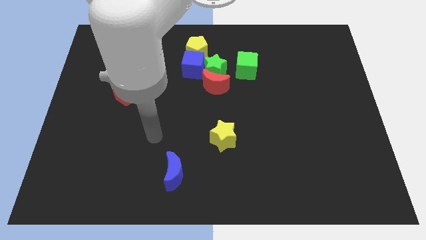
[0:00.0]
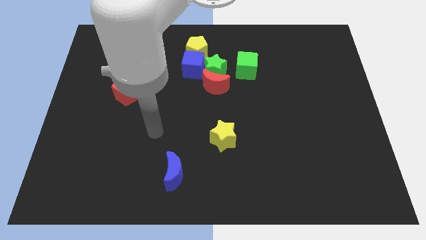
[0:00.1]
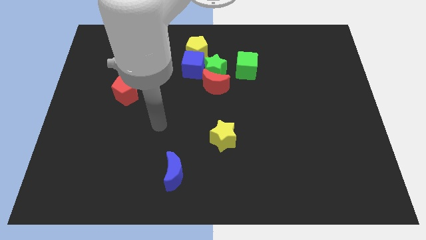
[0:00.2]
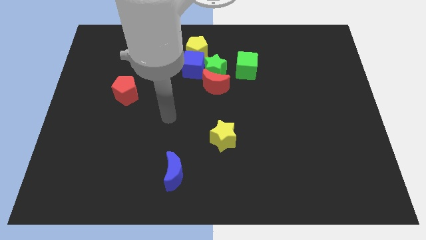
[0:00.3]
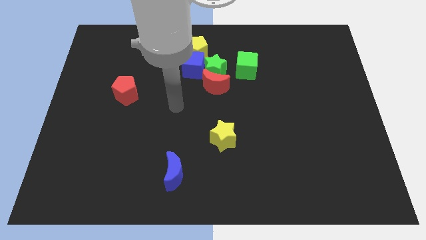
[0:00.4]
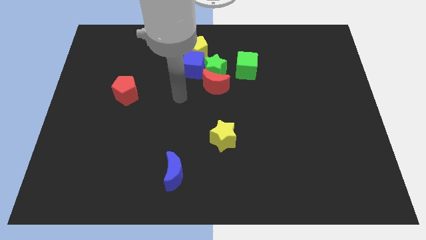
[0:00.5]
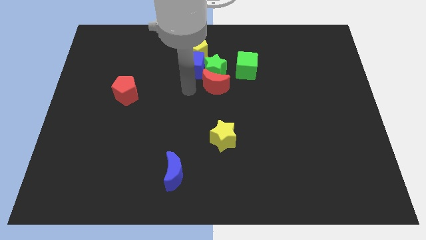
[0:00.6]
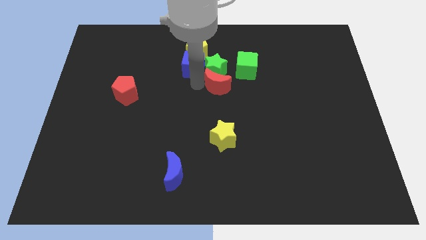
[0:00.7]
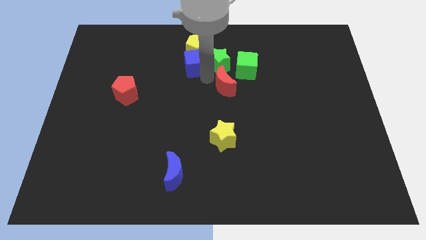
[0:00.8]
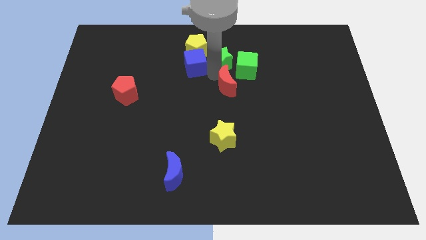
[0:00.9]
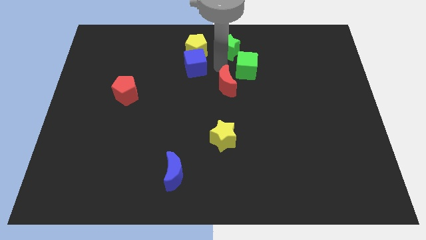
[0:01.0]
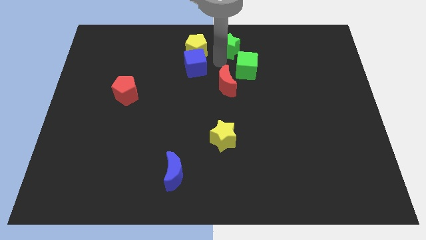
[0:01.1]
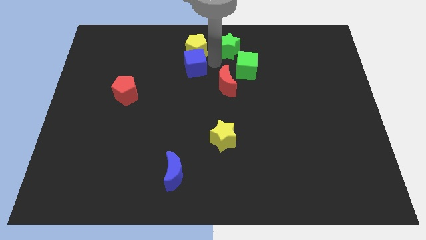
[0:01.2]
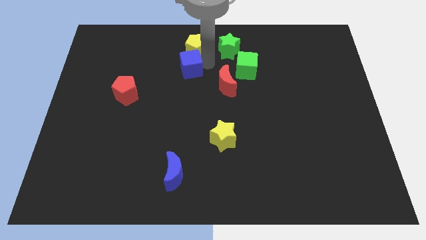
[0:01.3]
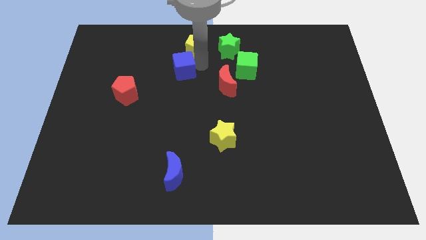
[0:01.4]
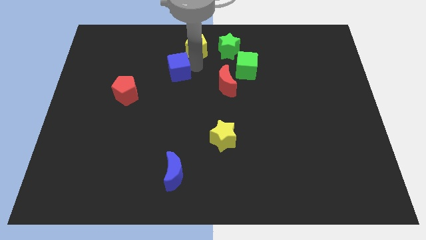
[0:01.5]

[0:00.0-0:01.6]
move the blue cube away from the yellow pentagon, green star, and red moon

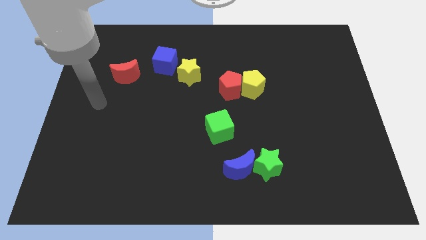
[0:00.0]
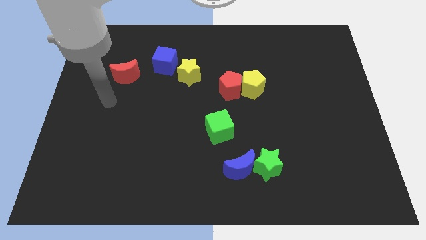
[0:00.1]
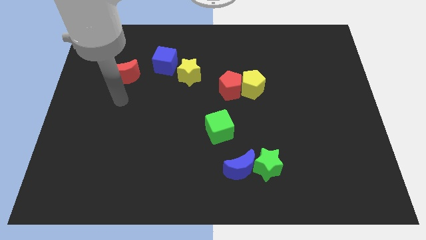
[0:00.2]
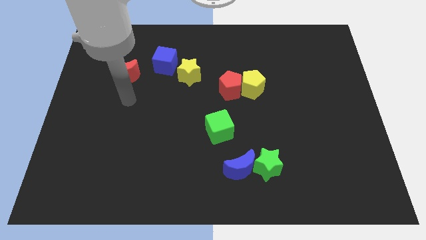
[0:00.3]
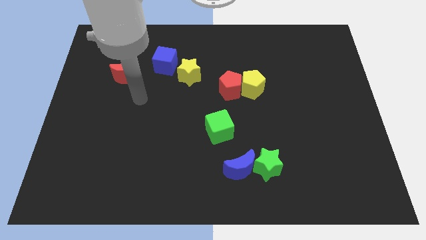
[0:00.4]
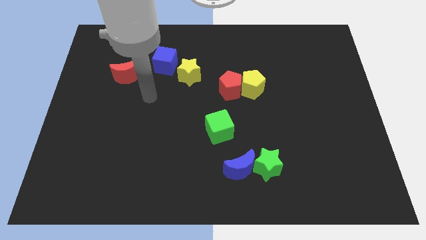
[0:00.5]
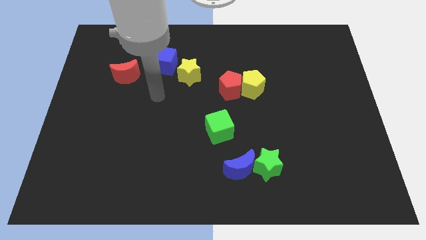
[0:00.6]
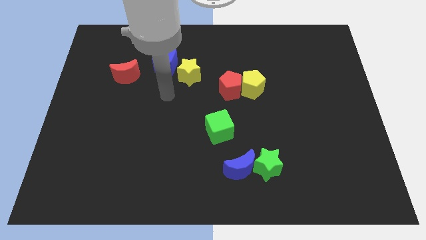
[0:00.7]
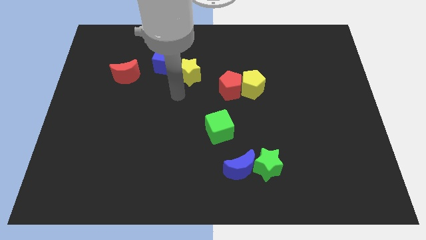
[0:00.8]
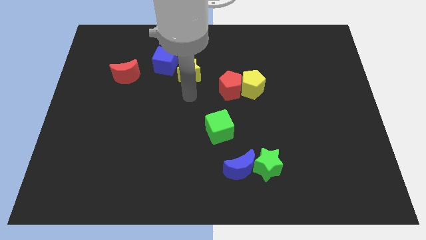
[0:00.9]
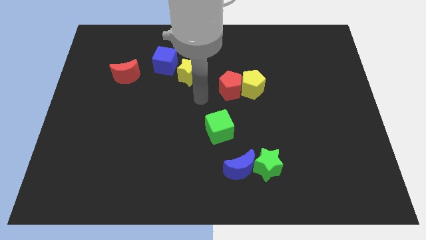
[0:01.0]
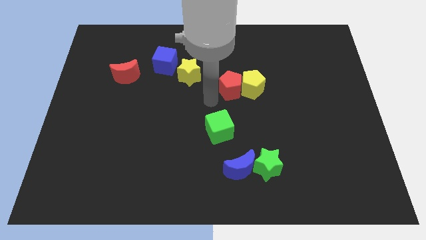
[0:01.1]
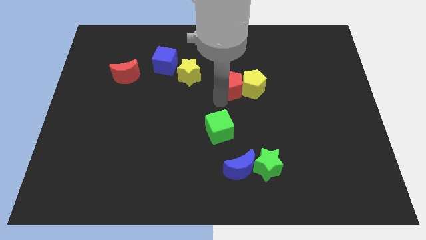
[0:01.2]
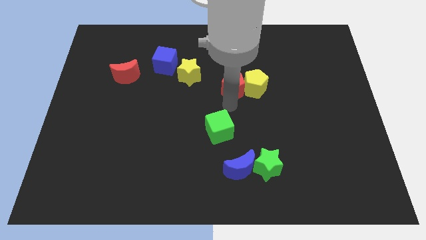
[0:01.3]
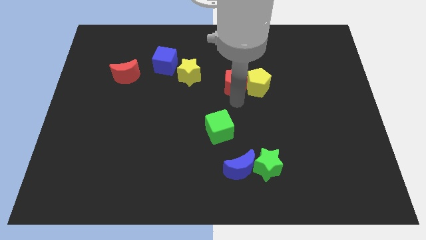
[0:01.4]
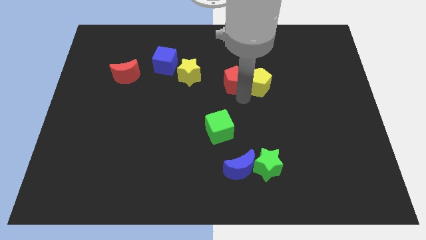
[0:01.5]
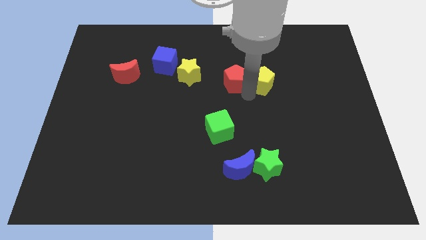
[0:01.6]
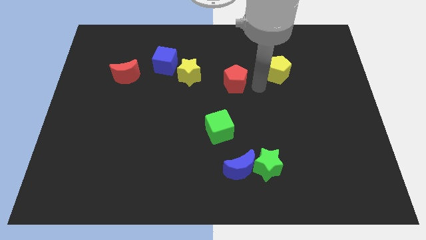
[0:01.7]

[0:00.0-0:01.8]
move the red pentagon away from the yellow pentagon

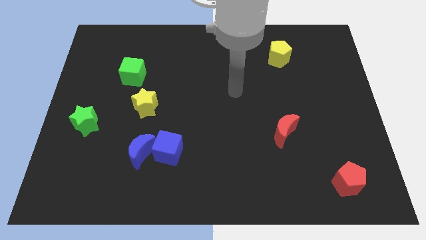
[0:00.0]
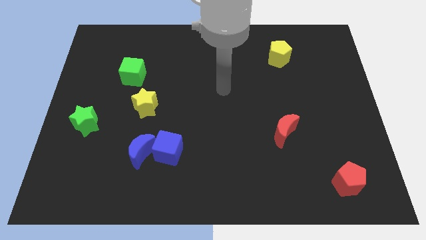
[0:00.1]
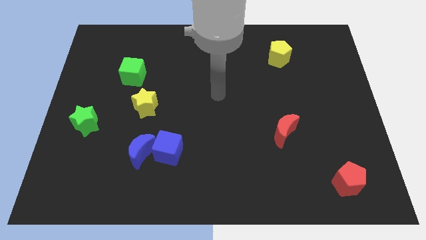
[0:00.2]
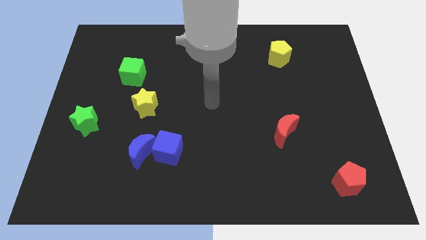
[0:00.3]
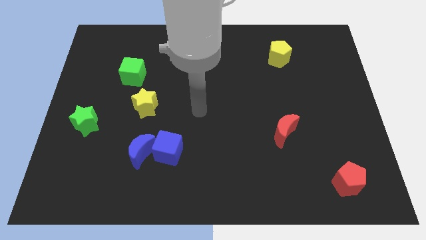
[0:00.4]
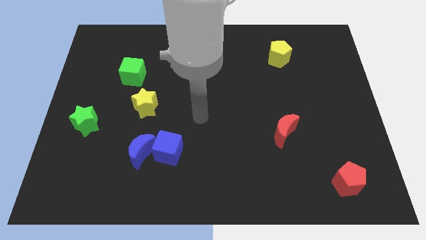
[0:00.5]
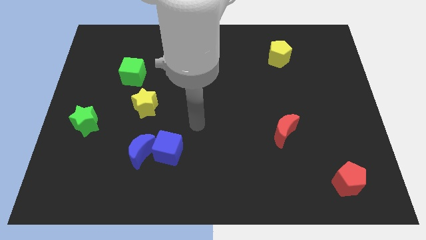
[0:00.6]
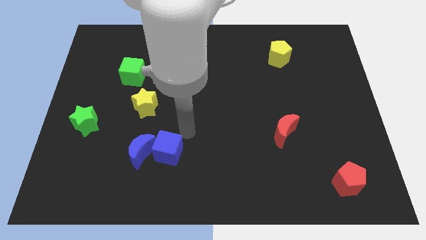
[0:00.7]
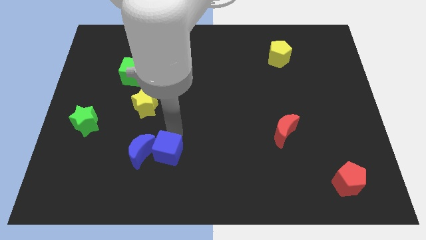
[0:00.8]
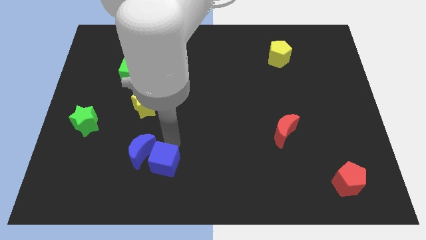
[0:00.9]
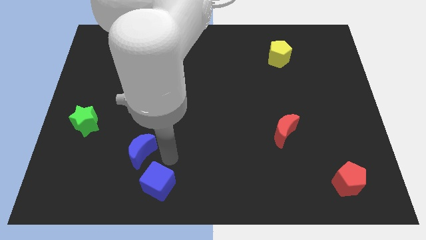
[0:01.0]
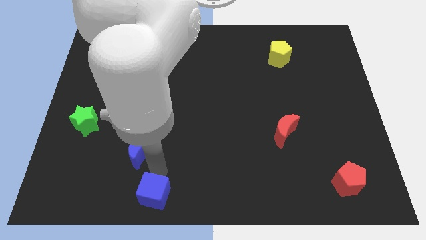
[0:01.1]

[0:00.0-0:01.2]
move the blue moon away from the blue cube

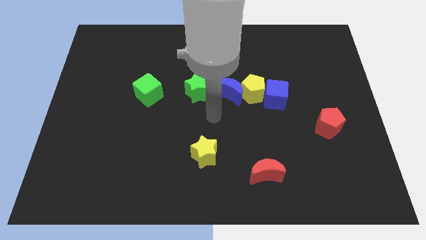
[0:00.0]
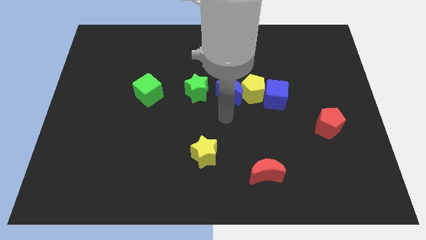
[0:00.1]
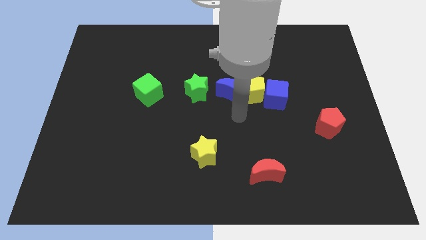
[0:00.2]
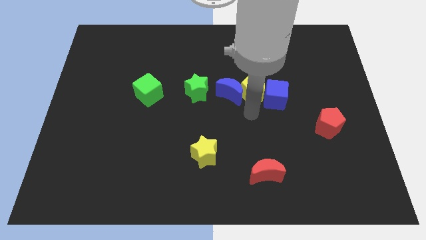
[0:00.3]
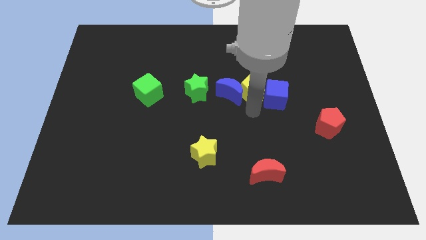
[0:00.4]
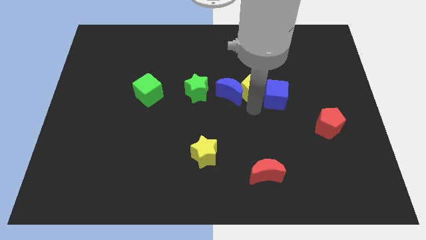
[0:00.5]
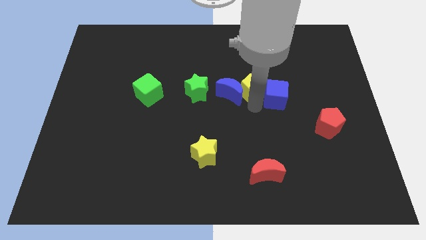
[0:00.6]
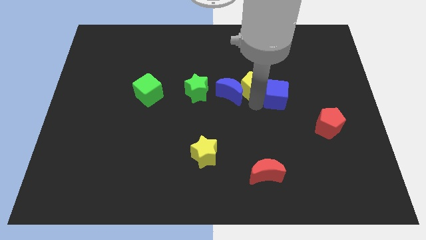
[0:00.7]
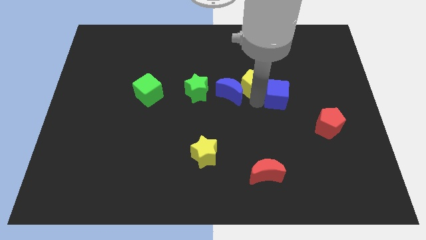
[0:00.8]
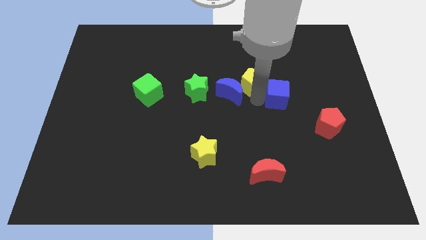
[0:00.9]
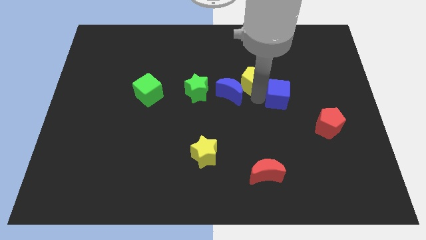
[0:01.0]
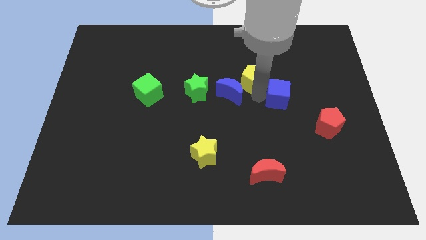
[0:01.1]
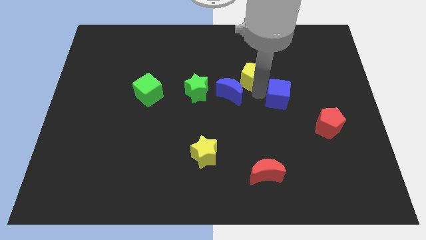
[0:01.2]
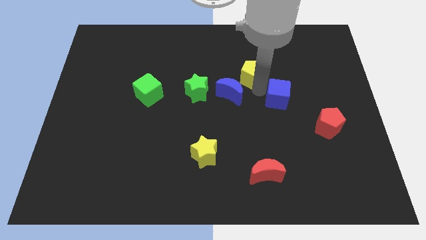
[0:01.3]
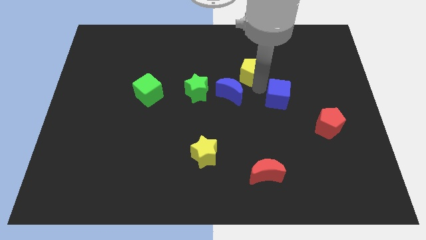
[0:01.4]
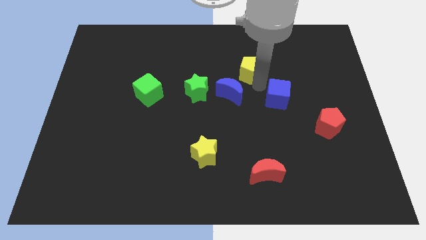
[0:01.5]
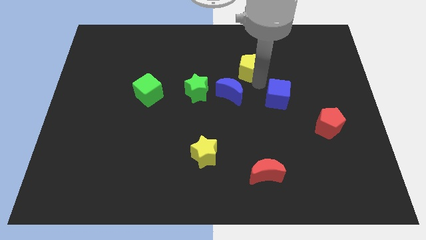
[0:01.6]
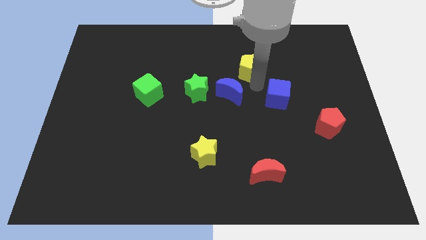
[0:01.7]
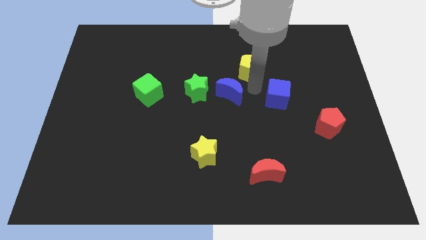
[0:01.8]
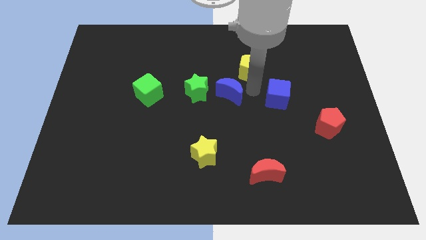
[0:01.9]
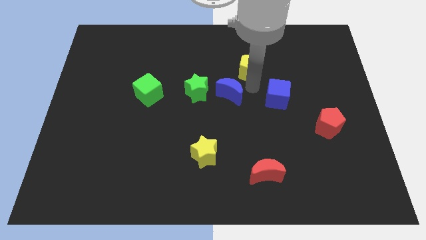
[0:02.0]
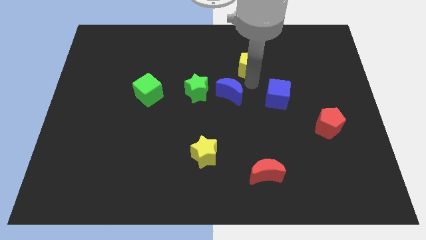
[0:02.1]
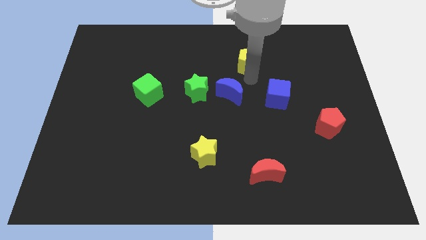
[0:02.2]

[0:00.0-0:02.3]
pull the yellow pentagon apart from the blue moon and blue cube

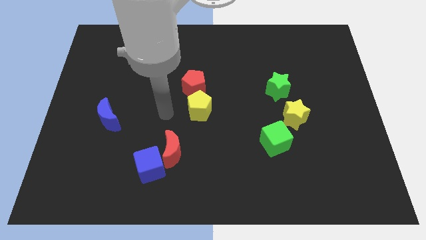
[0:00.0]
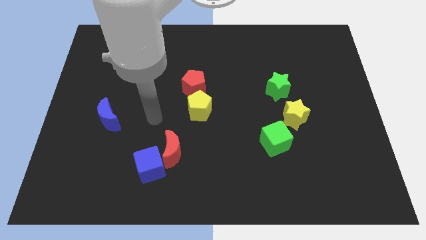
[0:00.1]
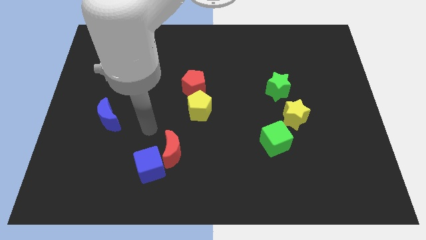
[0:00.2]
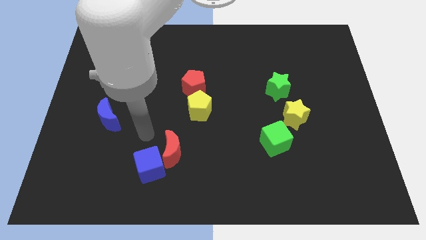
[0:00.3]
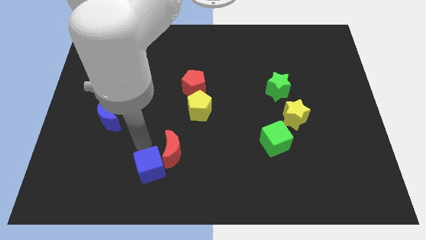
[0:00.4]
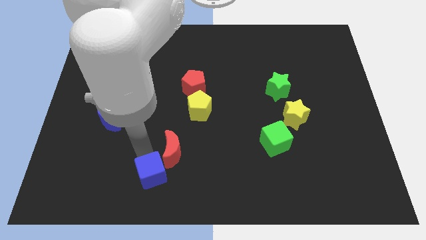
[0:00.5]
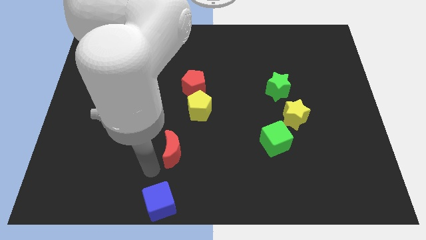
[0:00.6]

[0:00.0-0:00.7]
separate the red moon from the blue cube

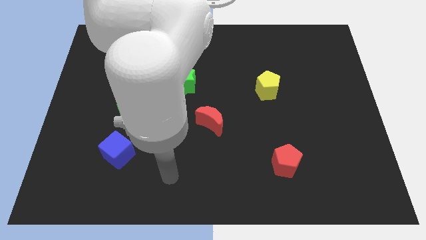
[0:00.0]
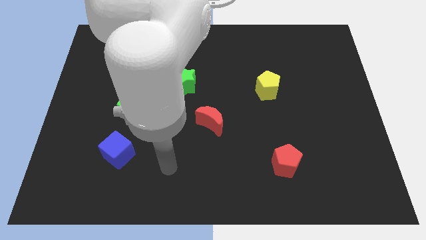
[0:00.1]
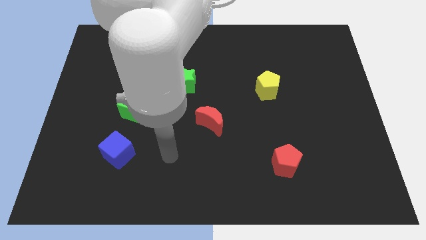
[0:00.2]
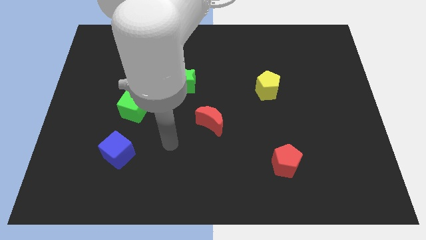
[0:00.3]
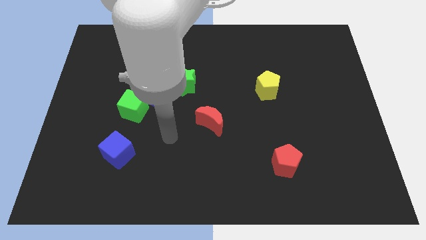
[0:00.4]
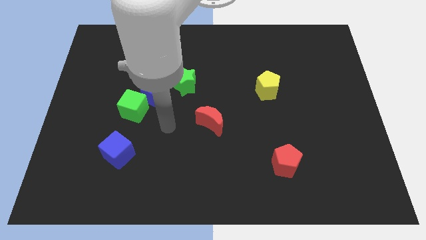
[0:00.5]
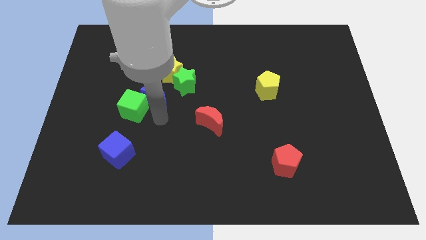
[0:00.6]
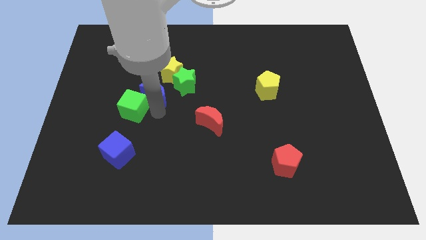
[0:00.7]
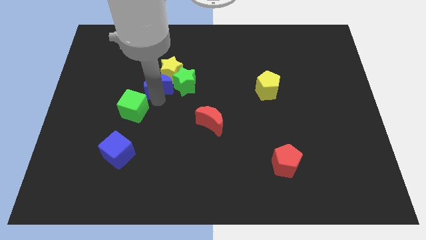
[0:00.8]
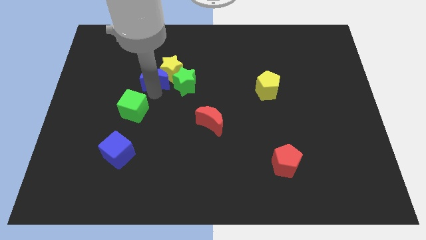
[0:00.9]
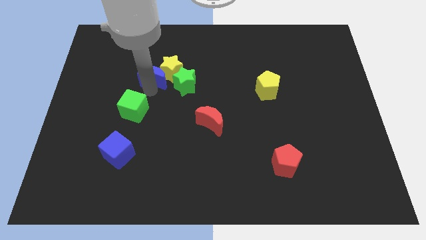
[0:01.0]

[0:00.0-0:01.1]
separate the green cube from the blue moon

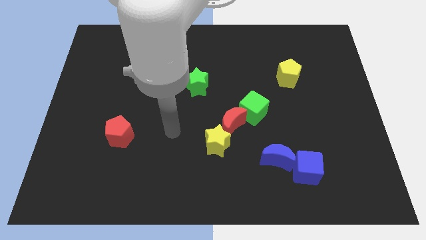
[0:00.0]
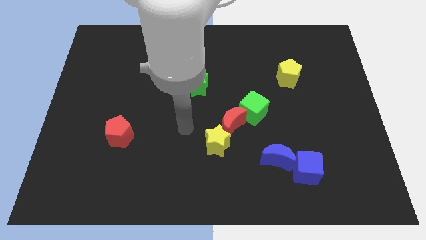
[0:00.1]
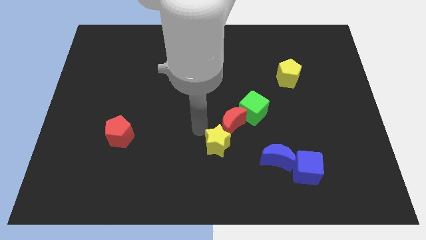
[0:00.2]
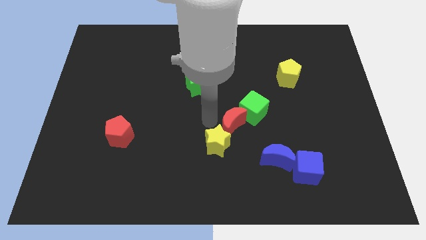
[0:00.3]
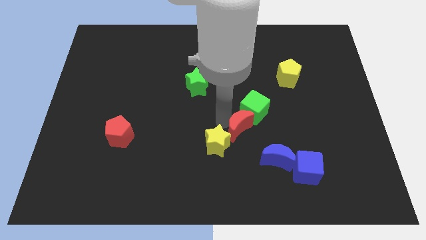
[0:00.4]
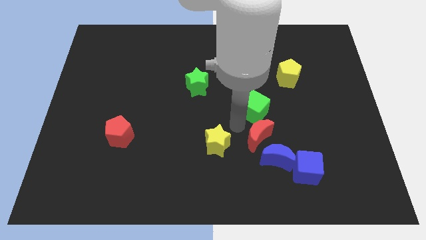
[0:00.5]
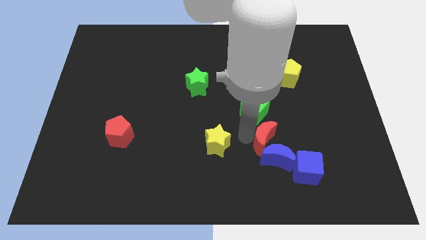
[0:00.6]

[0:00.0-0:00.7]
pull the yellow star apart from the red moon
